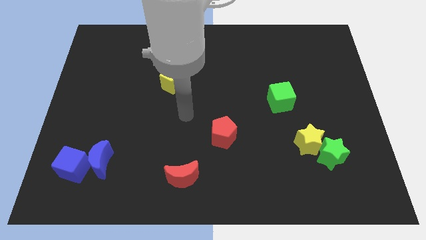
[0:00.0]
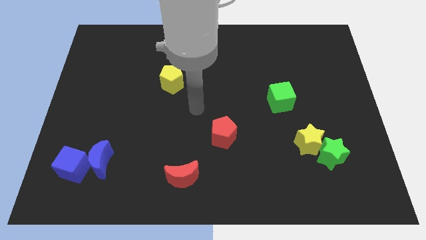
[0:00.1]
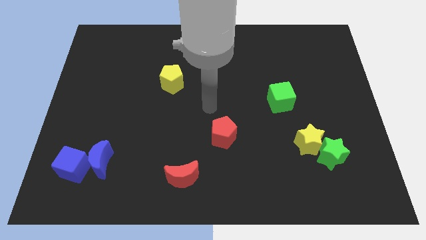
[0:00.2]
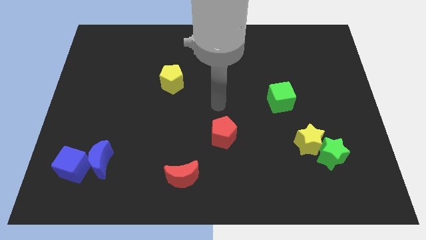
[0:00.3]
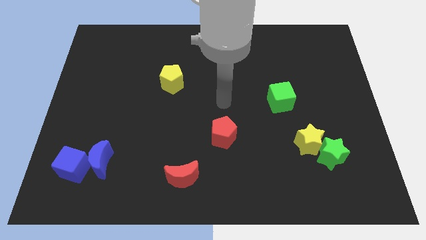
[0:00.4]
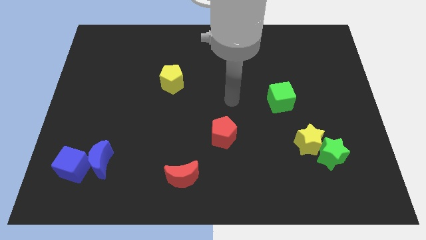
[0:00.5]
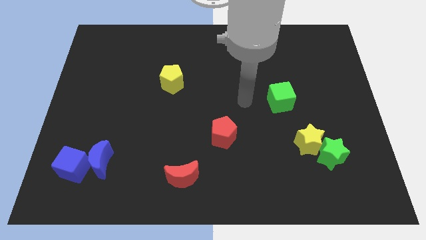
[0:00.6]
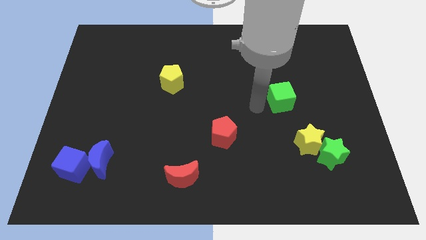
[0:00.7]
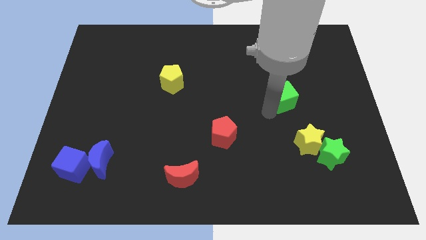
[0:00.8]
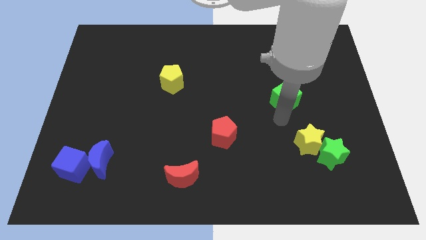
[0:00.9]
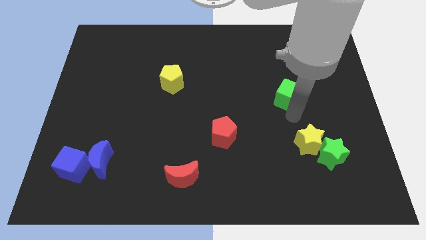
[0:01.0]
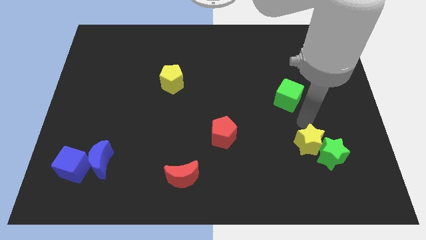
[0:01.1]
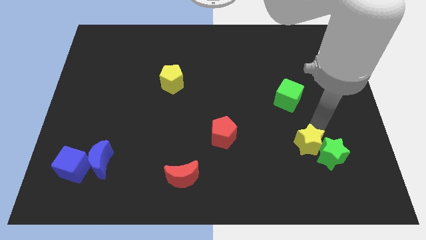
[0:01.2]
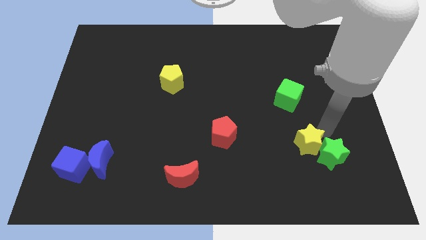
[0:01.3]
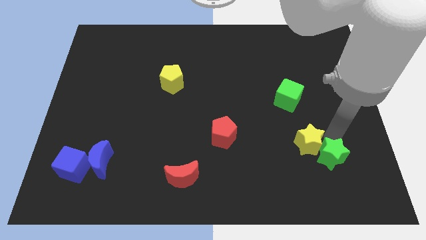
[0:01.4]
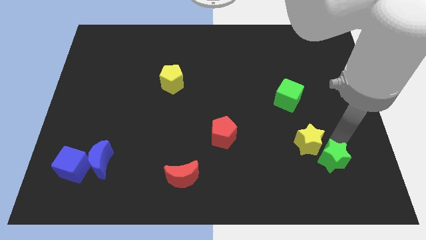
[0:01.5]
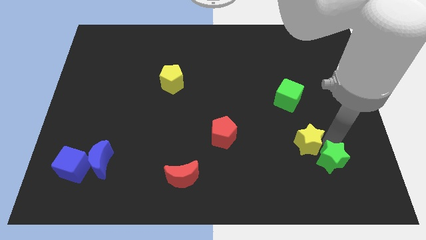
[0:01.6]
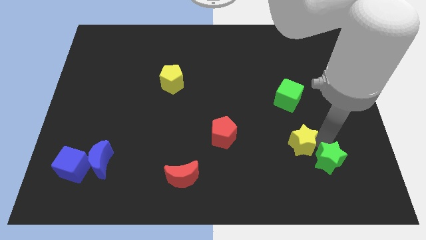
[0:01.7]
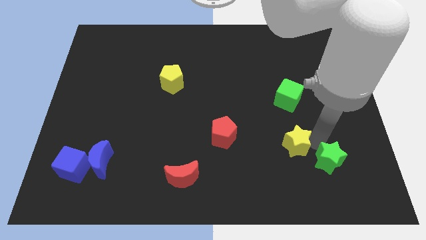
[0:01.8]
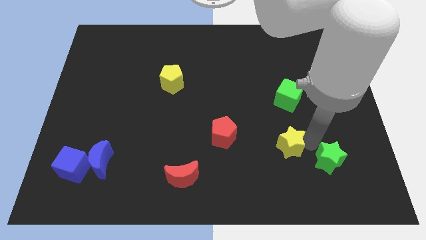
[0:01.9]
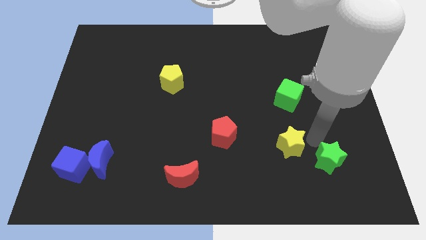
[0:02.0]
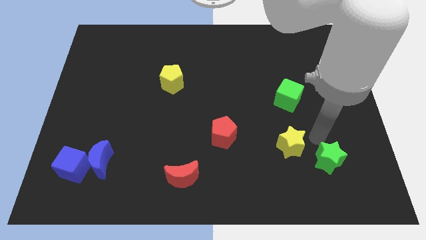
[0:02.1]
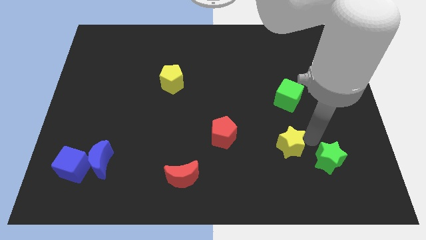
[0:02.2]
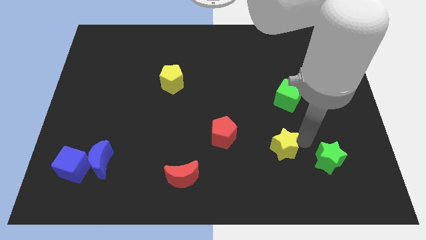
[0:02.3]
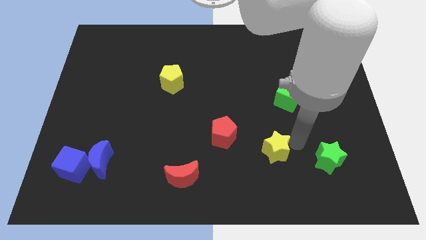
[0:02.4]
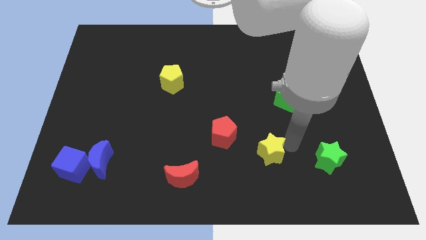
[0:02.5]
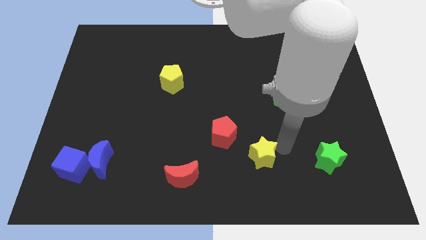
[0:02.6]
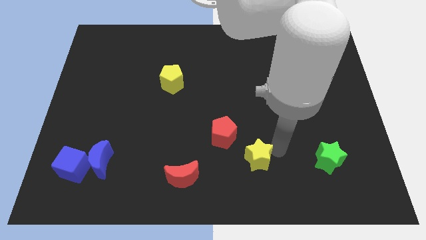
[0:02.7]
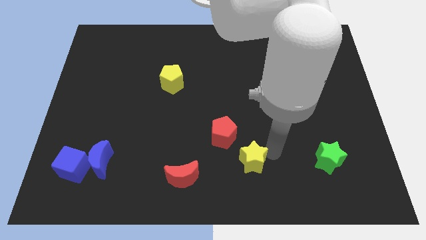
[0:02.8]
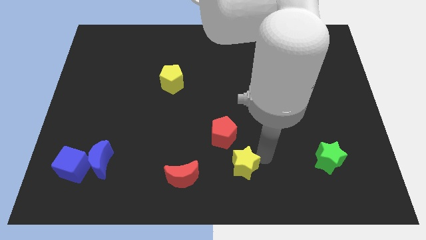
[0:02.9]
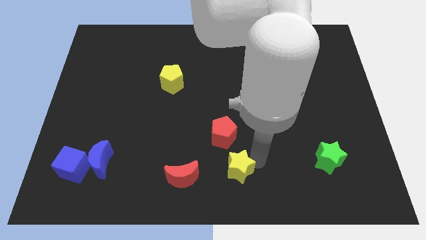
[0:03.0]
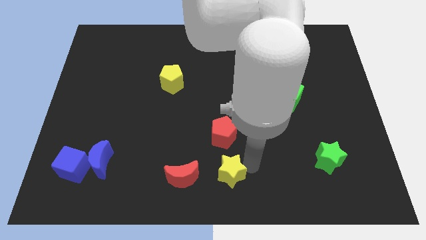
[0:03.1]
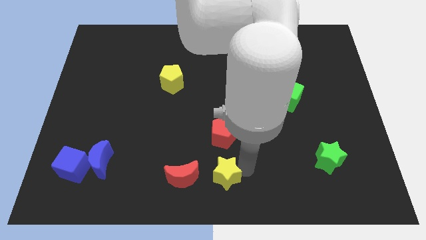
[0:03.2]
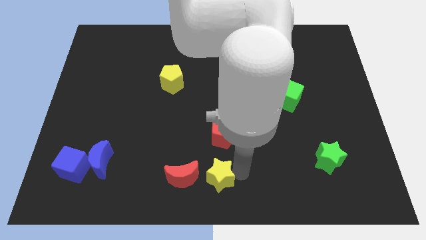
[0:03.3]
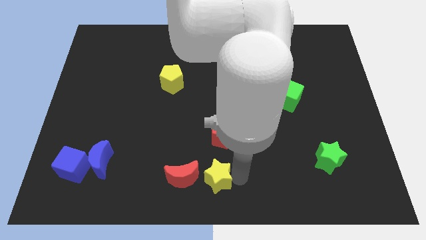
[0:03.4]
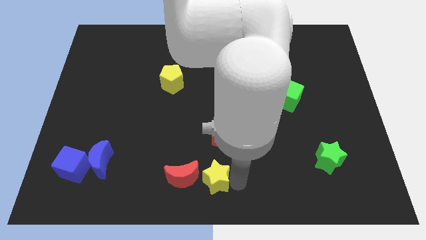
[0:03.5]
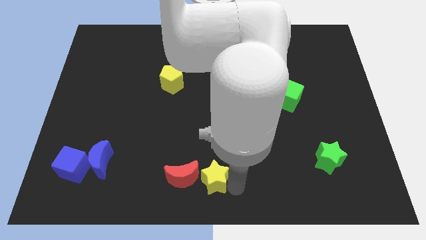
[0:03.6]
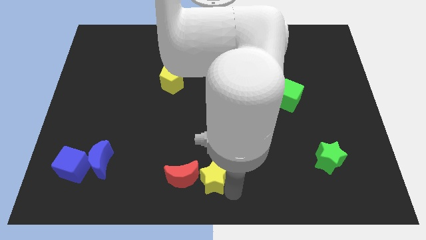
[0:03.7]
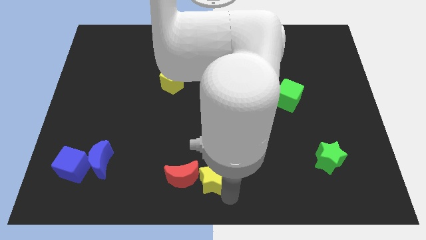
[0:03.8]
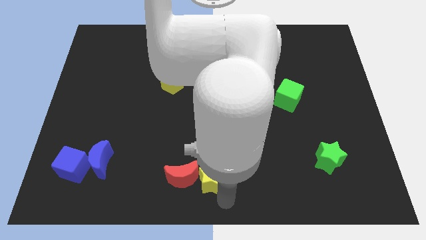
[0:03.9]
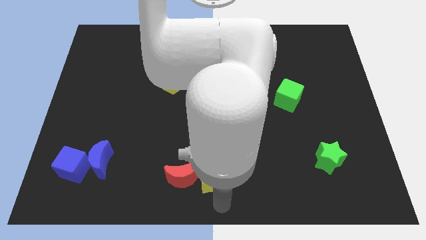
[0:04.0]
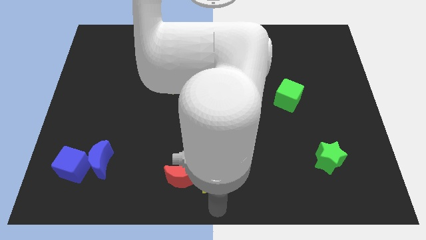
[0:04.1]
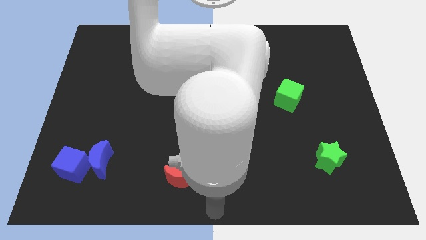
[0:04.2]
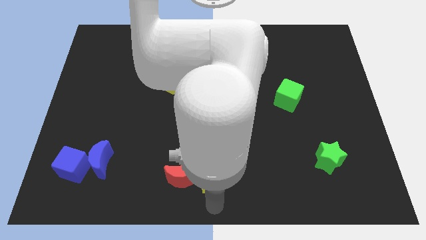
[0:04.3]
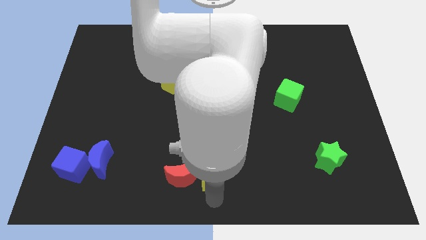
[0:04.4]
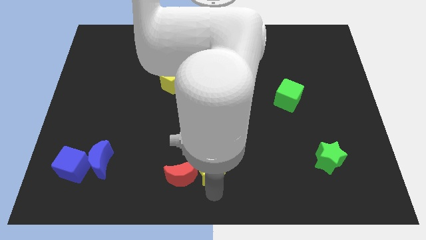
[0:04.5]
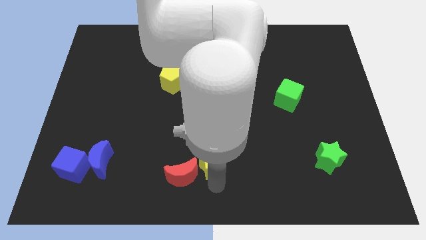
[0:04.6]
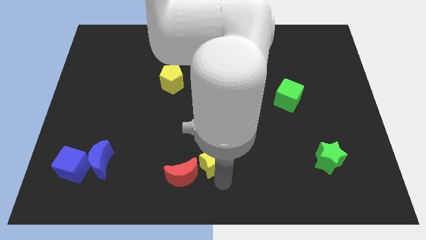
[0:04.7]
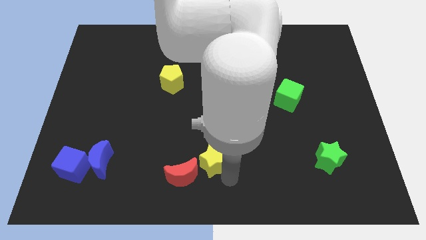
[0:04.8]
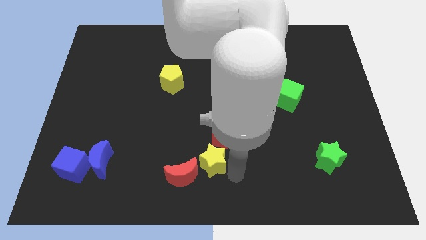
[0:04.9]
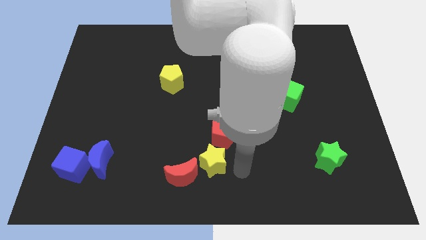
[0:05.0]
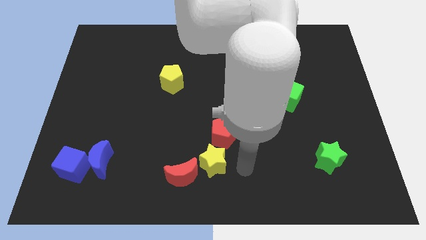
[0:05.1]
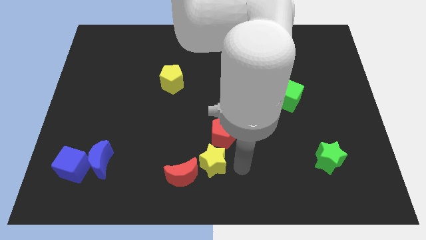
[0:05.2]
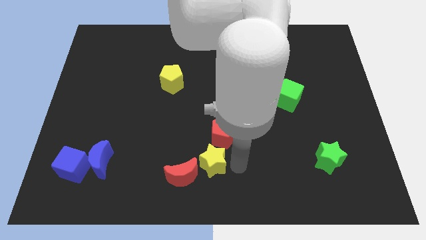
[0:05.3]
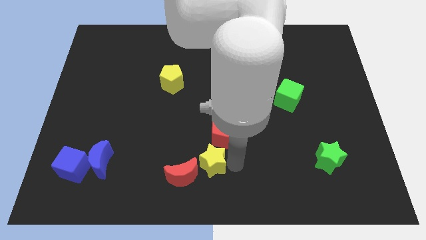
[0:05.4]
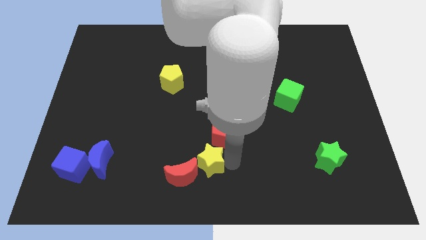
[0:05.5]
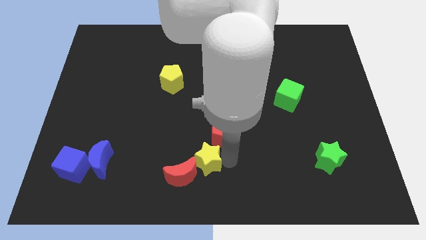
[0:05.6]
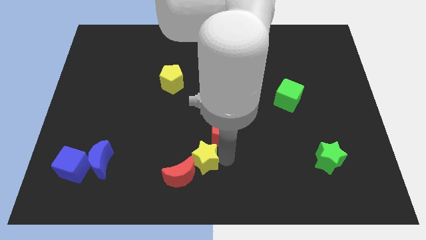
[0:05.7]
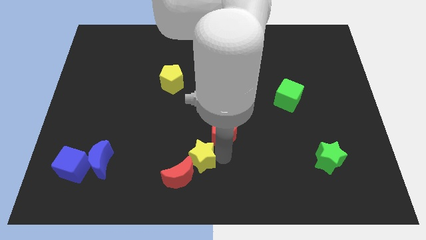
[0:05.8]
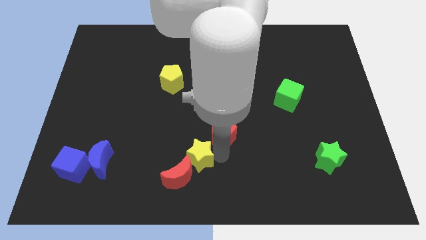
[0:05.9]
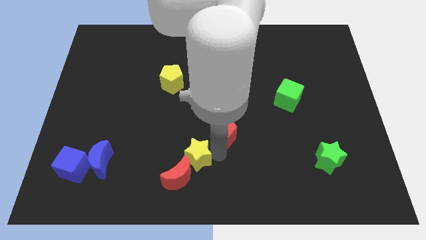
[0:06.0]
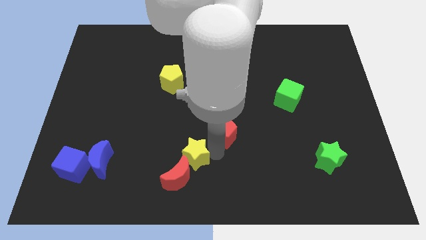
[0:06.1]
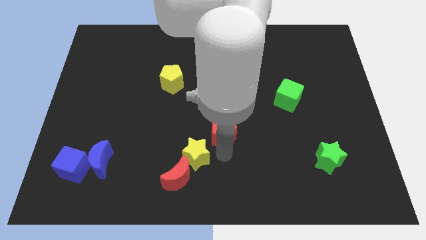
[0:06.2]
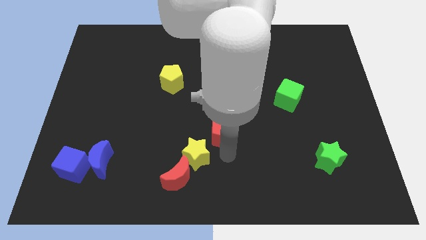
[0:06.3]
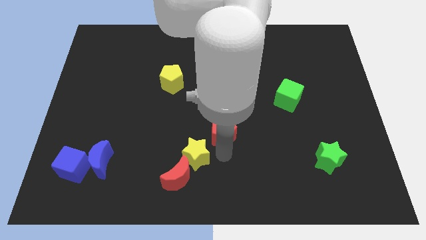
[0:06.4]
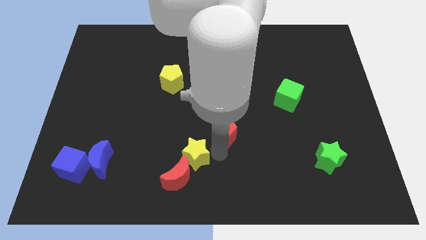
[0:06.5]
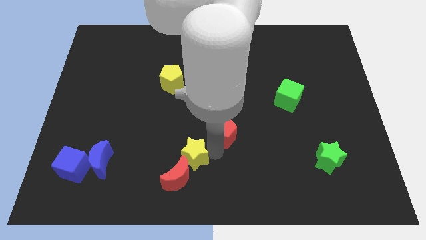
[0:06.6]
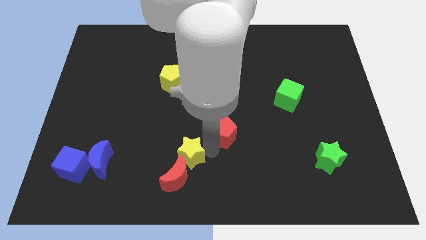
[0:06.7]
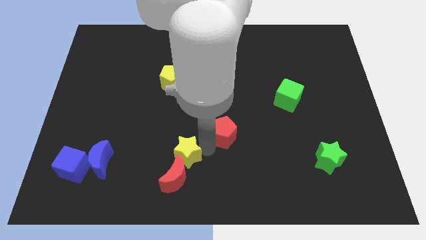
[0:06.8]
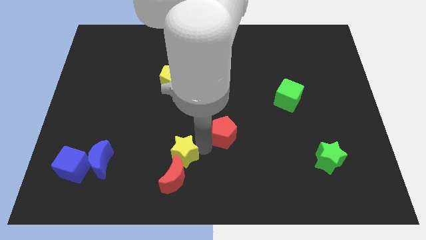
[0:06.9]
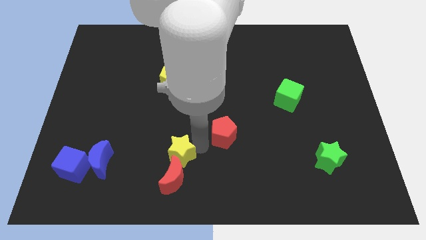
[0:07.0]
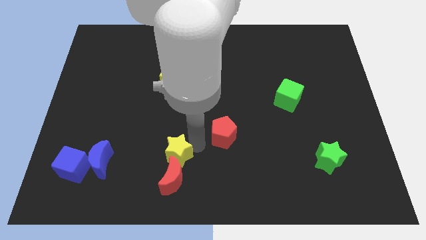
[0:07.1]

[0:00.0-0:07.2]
move the yellow star diagonally up and to the left of the red moon
